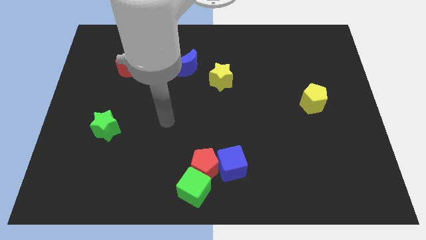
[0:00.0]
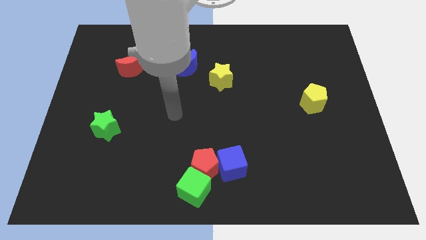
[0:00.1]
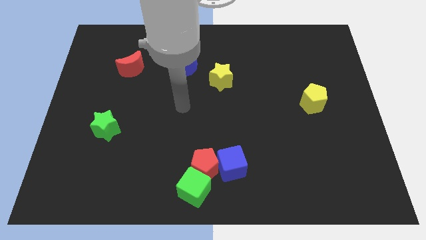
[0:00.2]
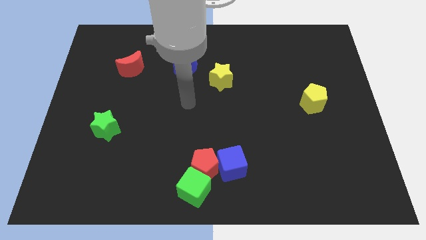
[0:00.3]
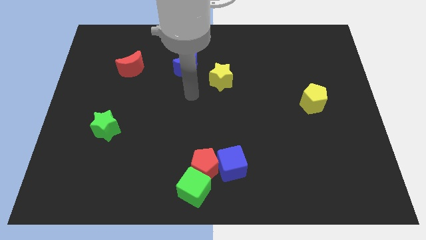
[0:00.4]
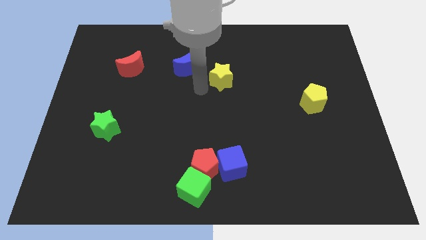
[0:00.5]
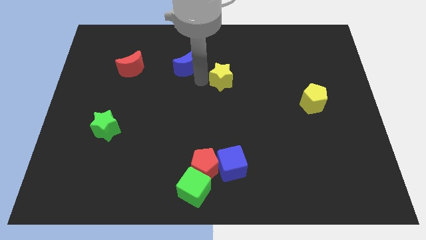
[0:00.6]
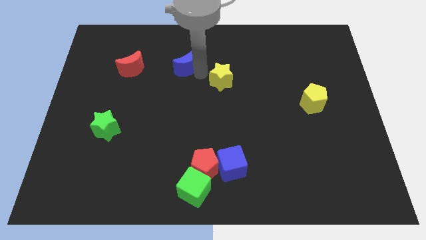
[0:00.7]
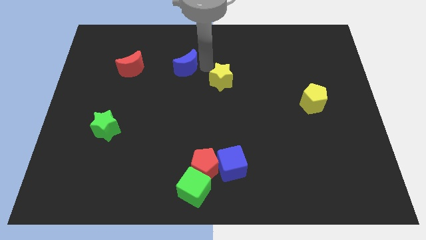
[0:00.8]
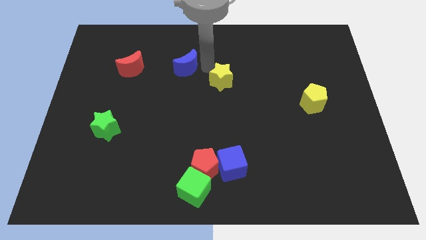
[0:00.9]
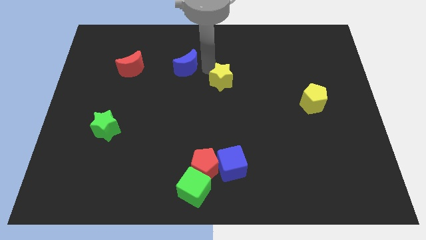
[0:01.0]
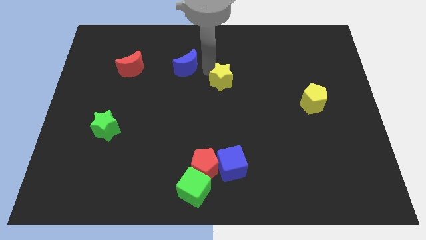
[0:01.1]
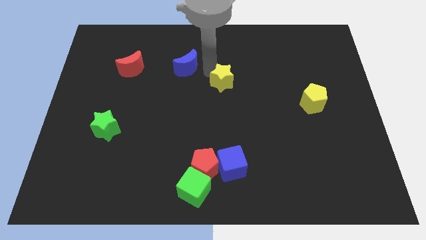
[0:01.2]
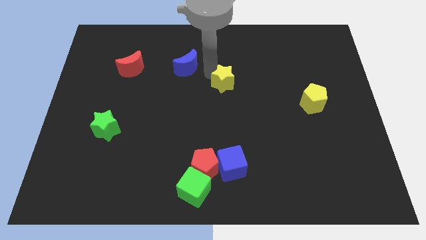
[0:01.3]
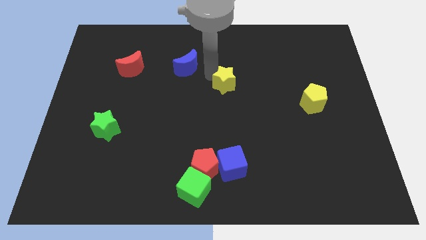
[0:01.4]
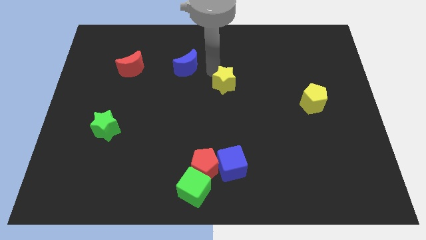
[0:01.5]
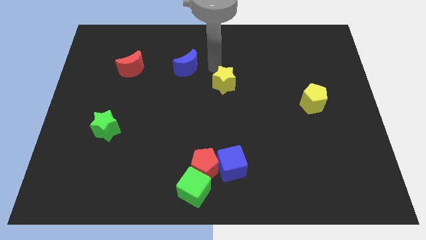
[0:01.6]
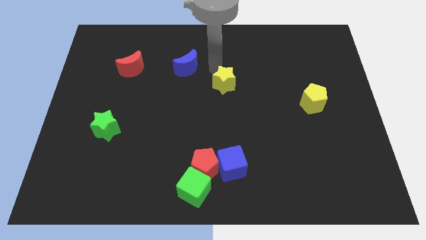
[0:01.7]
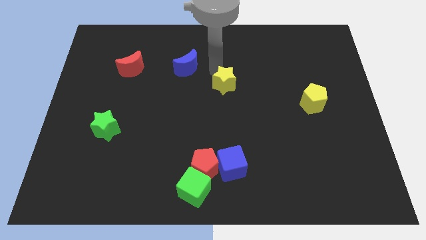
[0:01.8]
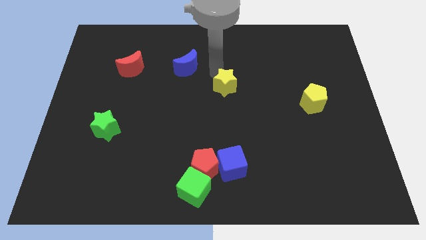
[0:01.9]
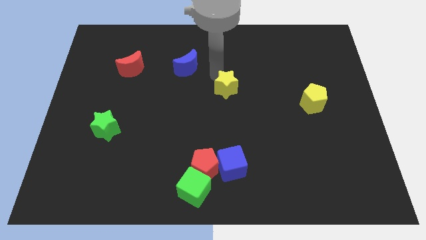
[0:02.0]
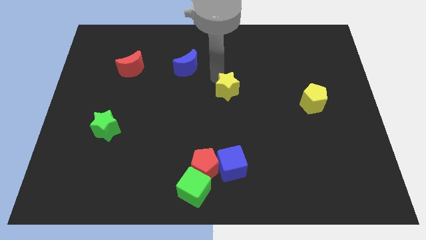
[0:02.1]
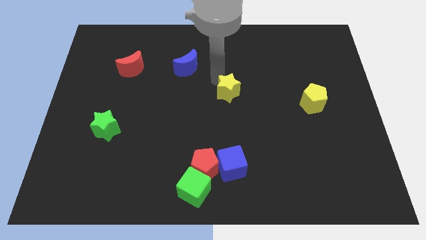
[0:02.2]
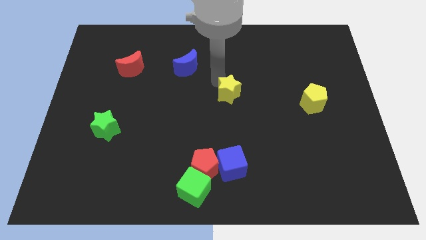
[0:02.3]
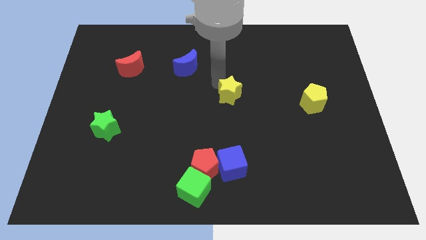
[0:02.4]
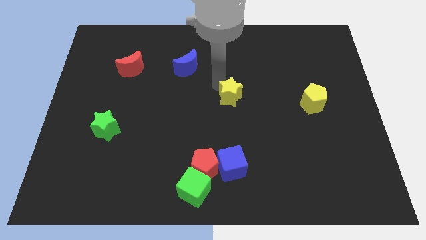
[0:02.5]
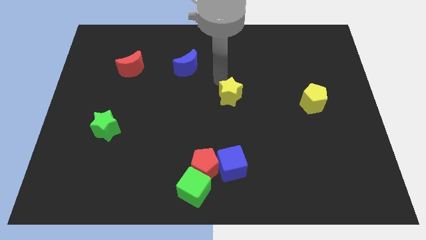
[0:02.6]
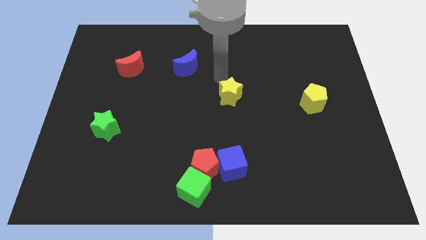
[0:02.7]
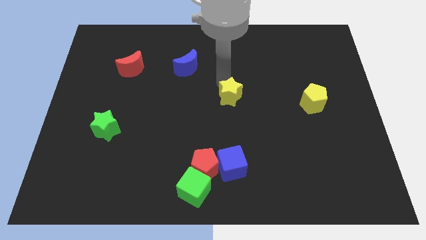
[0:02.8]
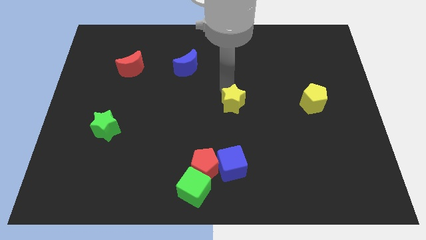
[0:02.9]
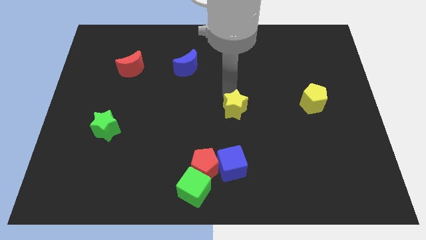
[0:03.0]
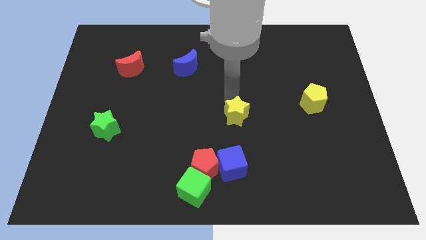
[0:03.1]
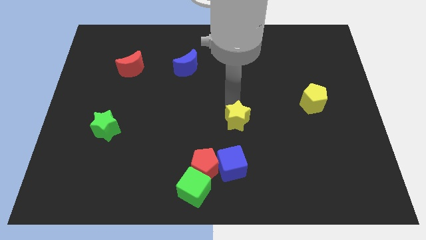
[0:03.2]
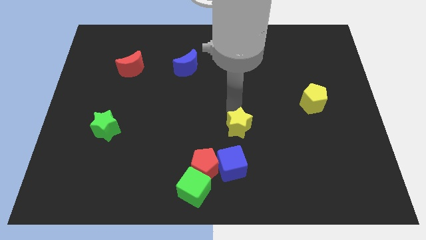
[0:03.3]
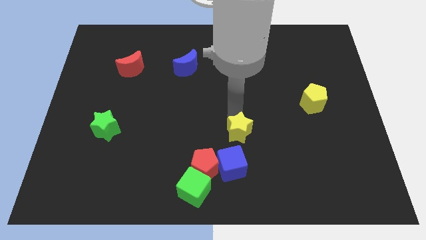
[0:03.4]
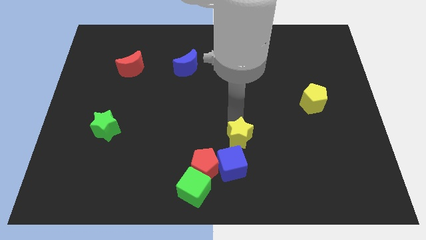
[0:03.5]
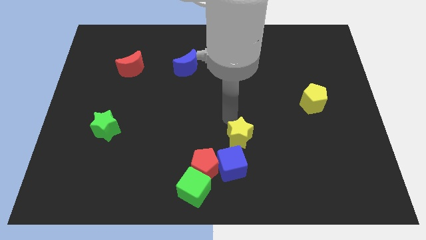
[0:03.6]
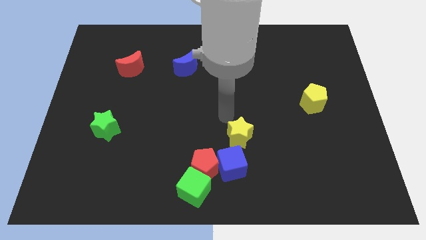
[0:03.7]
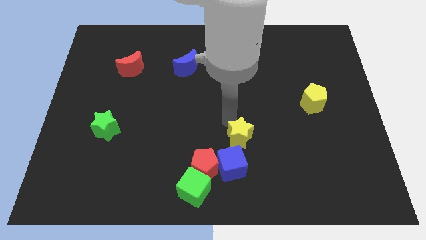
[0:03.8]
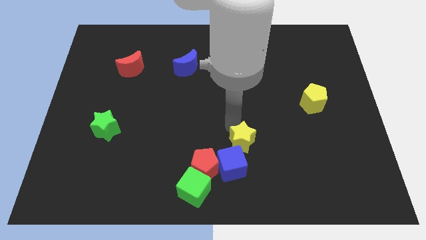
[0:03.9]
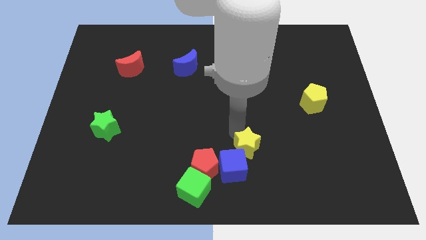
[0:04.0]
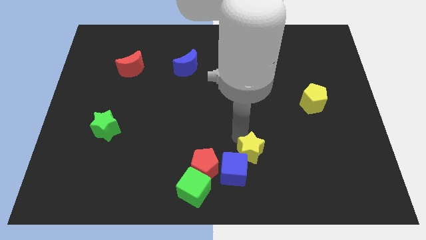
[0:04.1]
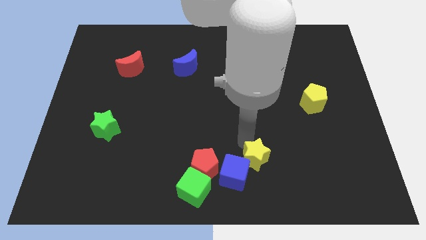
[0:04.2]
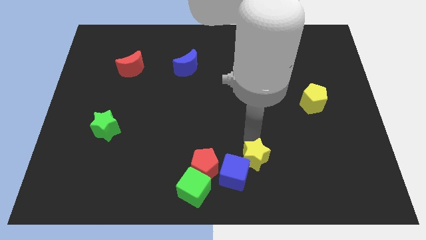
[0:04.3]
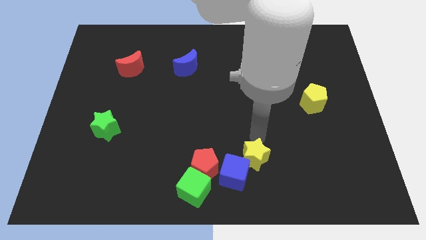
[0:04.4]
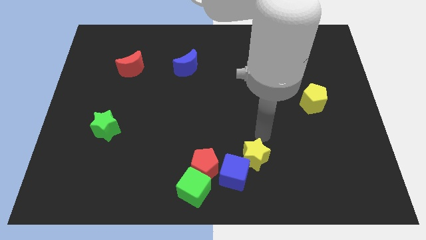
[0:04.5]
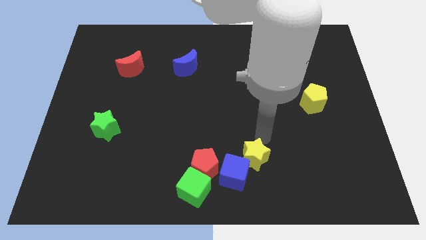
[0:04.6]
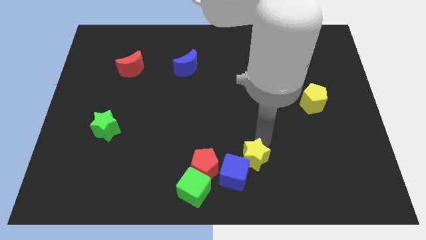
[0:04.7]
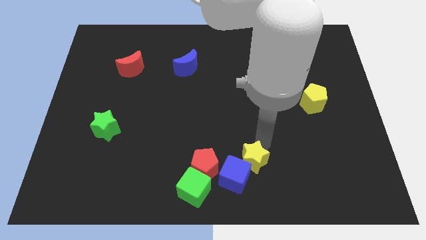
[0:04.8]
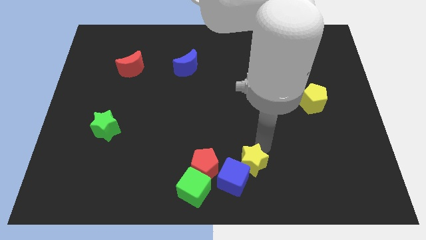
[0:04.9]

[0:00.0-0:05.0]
move the yellow star to the bottom

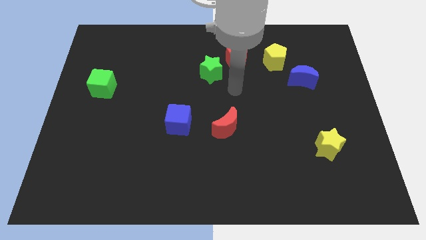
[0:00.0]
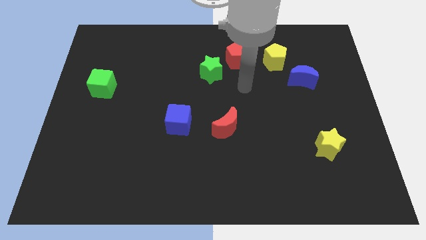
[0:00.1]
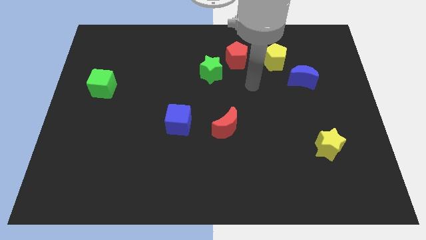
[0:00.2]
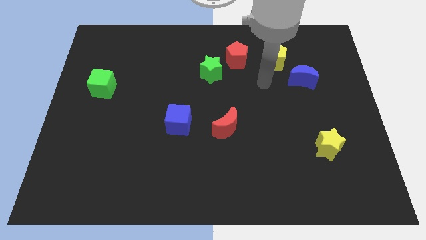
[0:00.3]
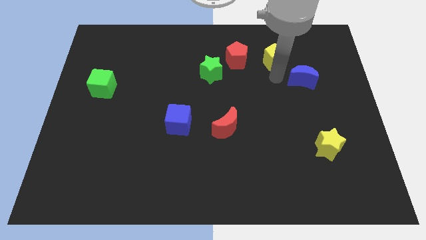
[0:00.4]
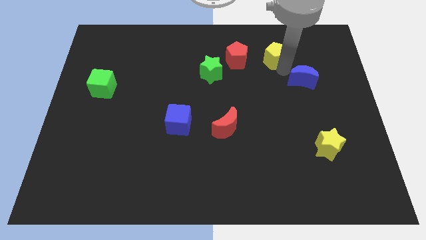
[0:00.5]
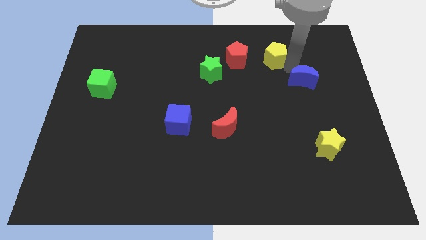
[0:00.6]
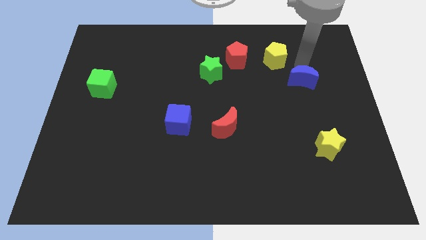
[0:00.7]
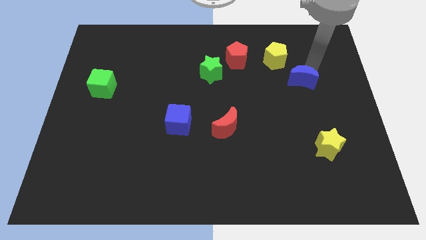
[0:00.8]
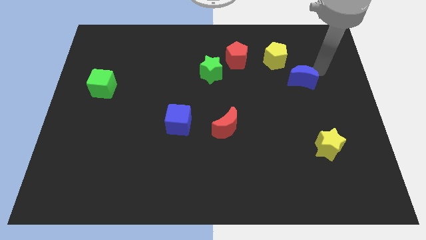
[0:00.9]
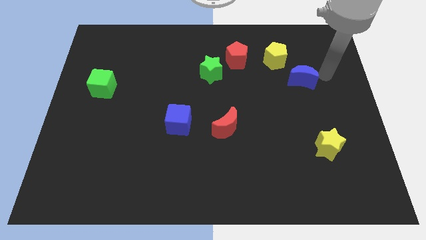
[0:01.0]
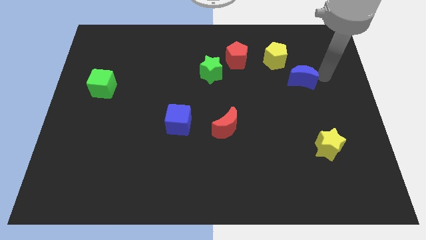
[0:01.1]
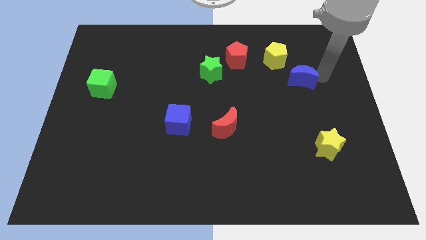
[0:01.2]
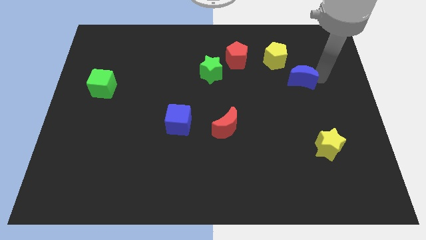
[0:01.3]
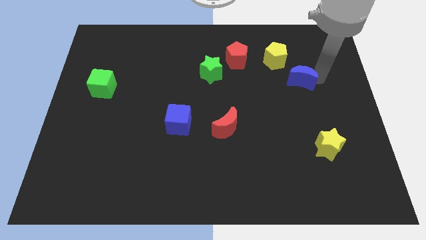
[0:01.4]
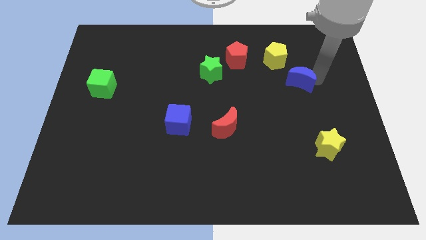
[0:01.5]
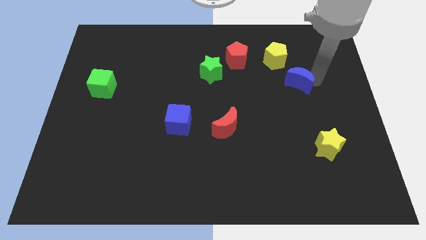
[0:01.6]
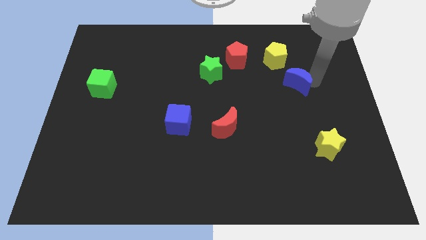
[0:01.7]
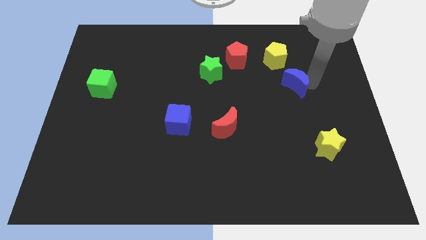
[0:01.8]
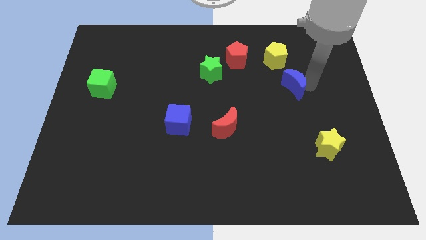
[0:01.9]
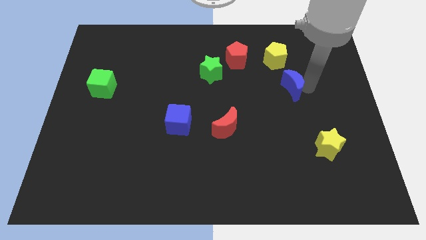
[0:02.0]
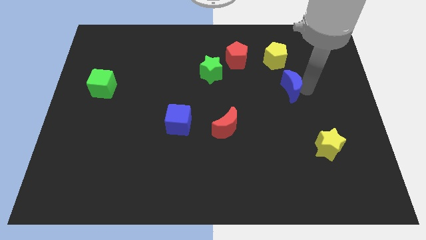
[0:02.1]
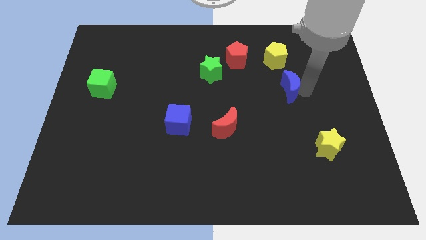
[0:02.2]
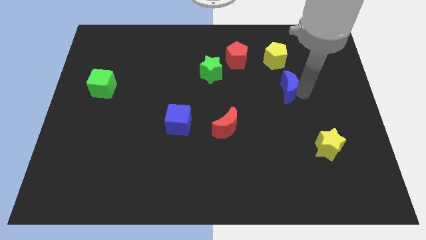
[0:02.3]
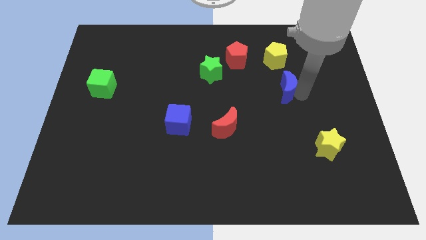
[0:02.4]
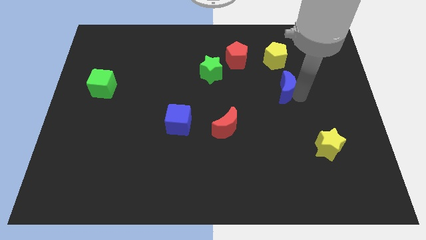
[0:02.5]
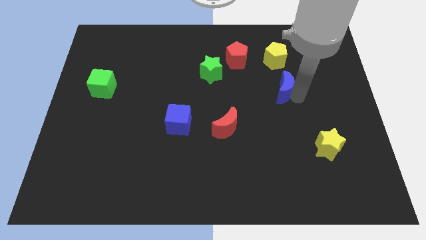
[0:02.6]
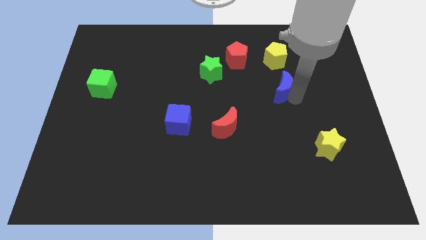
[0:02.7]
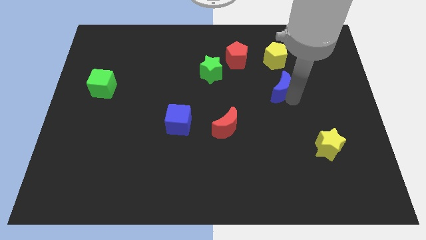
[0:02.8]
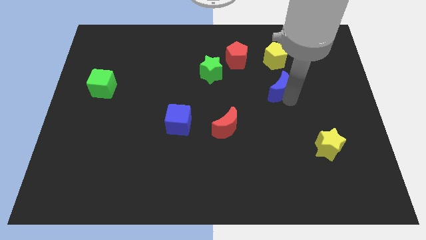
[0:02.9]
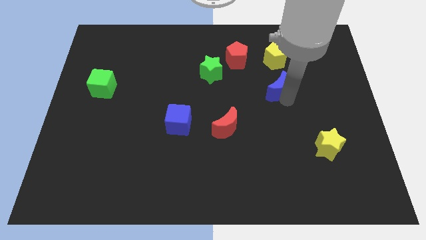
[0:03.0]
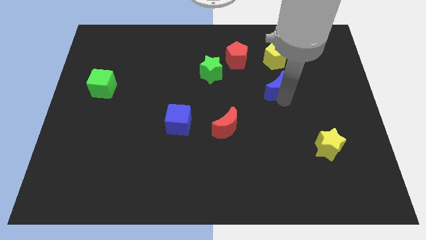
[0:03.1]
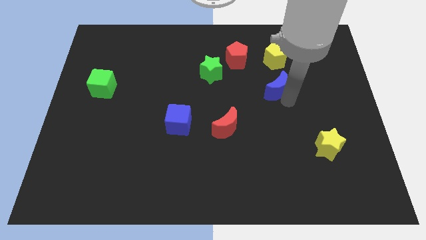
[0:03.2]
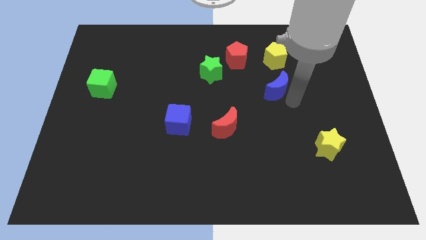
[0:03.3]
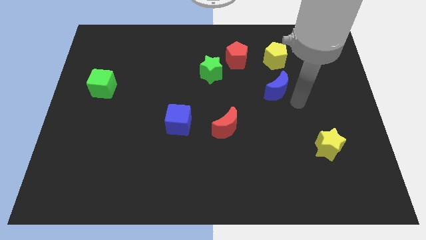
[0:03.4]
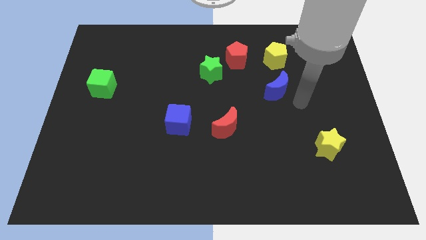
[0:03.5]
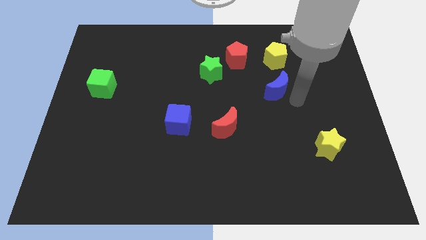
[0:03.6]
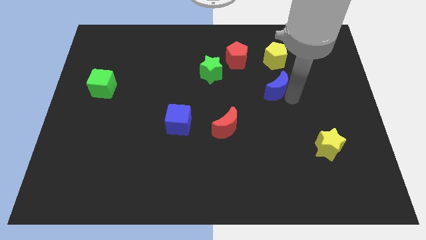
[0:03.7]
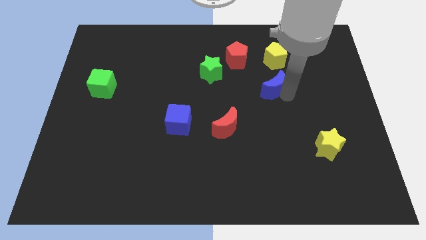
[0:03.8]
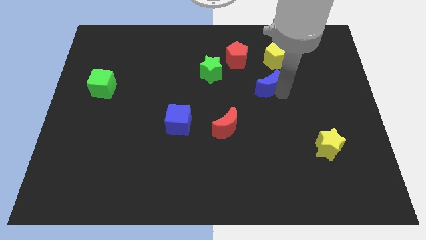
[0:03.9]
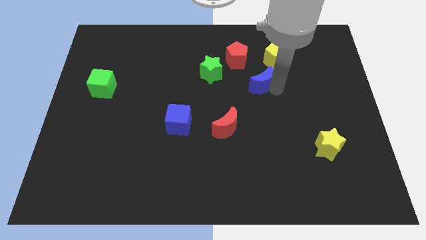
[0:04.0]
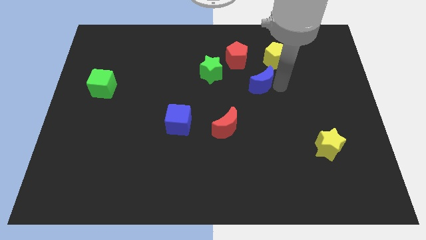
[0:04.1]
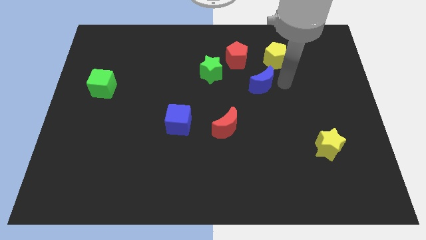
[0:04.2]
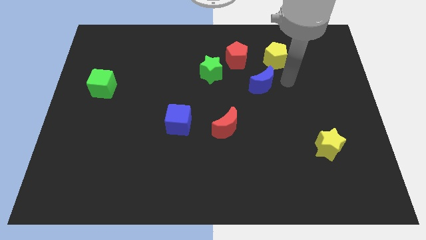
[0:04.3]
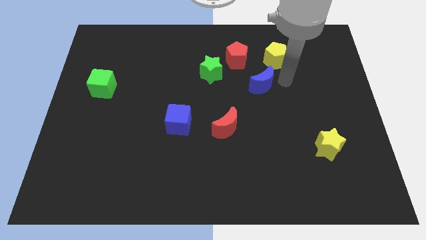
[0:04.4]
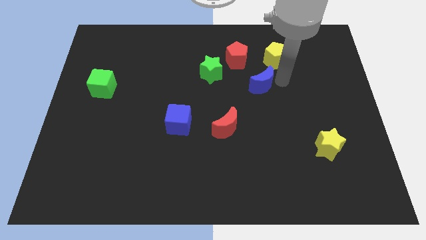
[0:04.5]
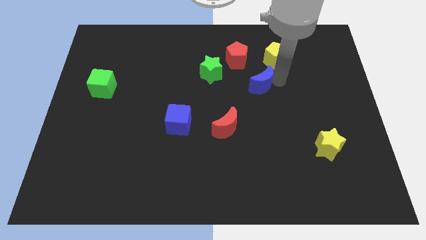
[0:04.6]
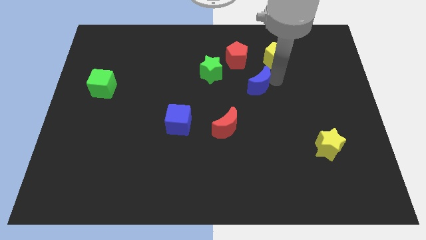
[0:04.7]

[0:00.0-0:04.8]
push the blue moon to the middle
